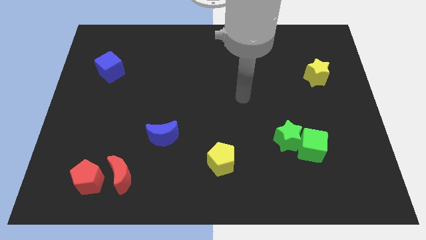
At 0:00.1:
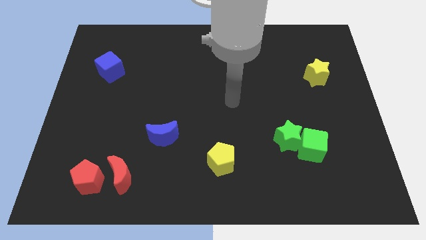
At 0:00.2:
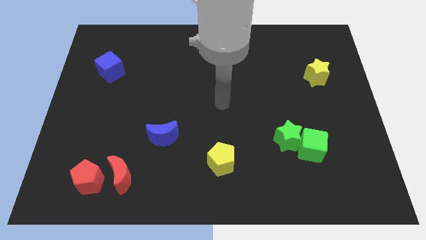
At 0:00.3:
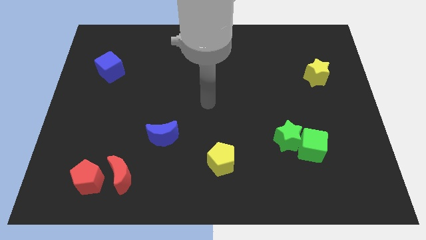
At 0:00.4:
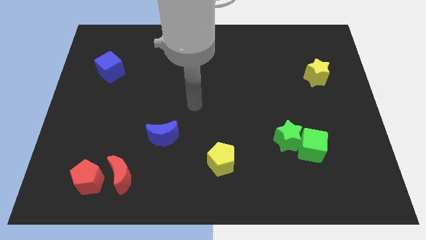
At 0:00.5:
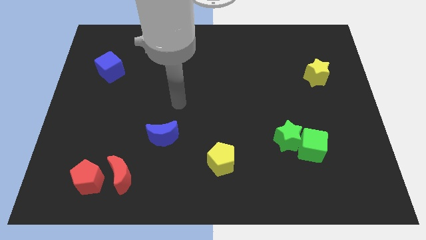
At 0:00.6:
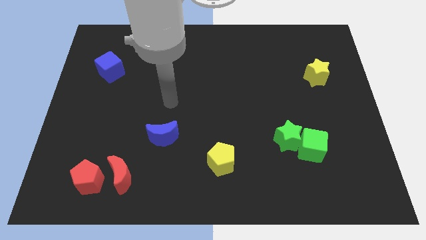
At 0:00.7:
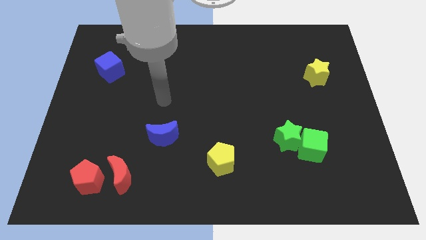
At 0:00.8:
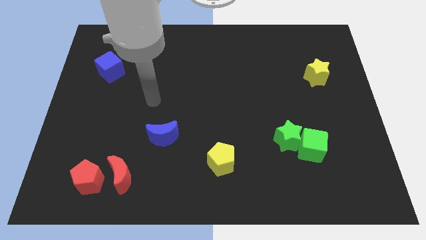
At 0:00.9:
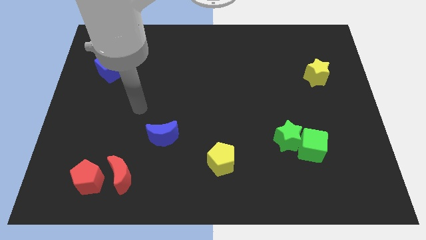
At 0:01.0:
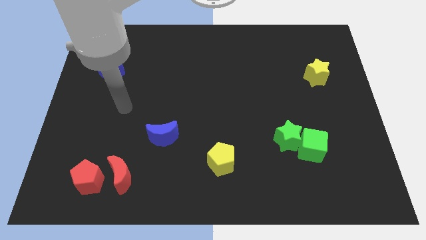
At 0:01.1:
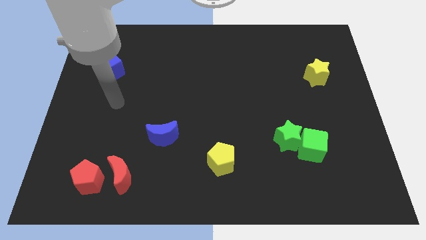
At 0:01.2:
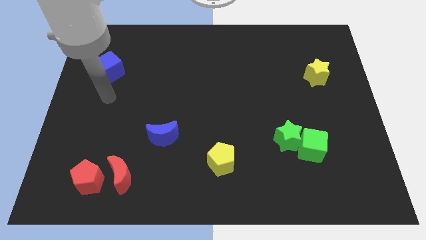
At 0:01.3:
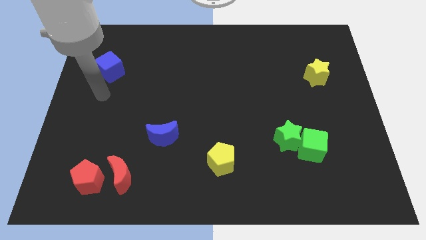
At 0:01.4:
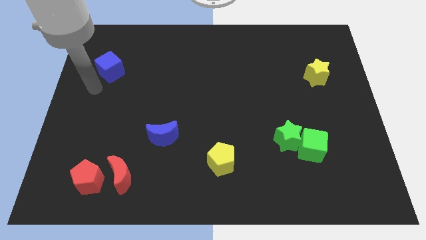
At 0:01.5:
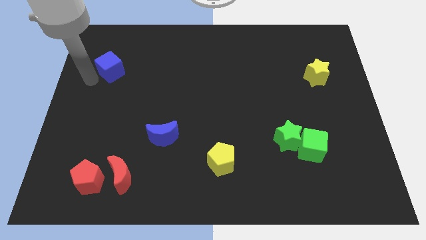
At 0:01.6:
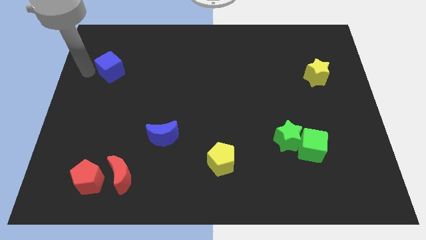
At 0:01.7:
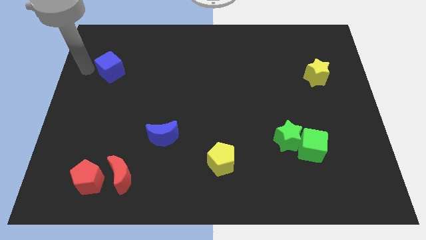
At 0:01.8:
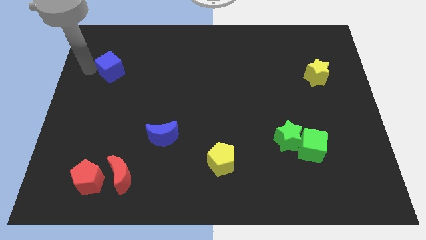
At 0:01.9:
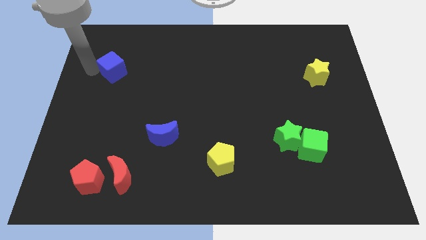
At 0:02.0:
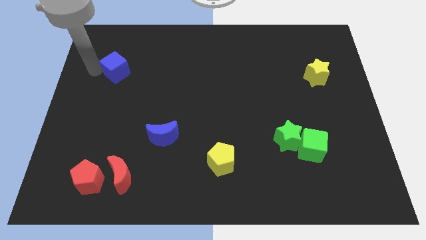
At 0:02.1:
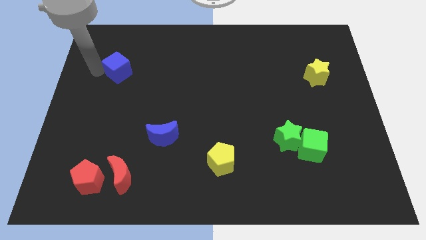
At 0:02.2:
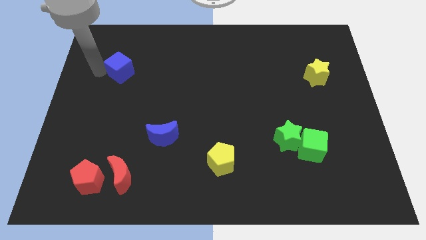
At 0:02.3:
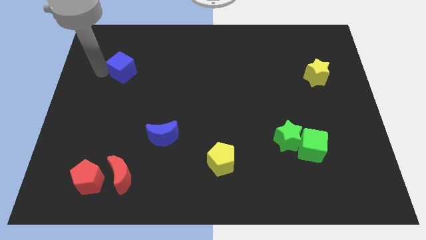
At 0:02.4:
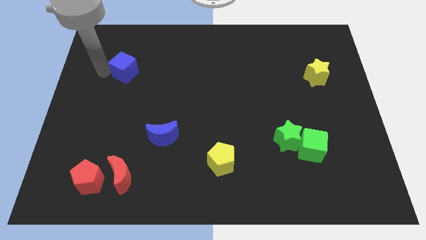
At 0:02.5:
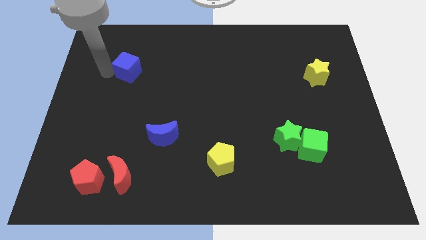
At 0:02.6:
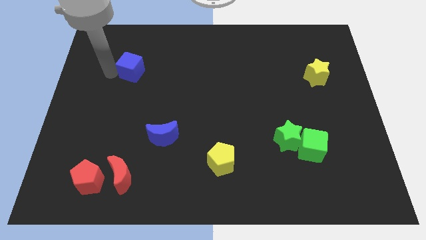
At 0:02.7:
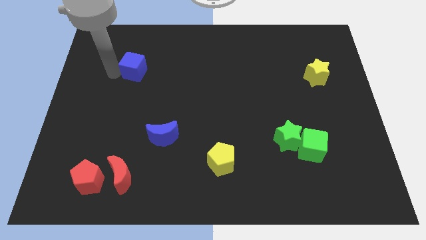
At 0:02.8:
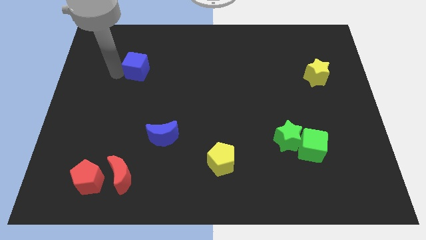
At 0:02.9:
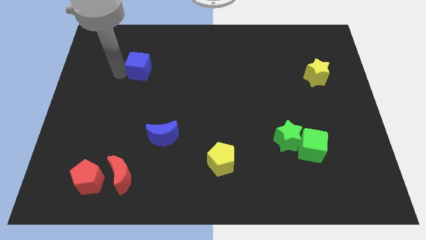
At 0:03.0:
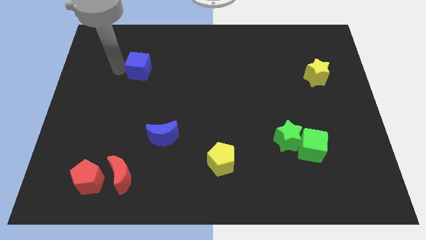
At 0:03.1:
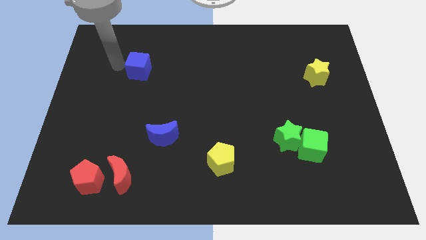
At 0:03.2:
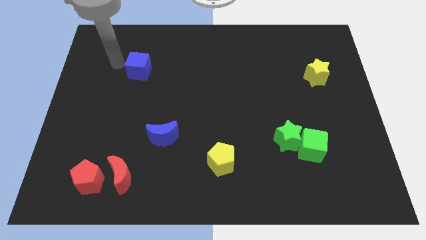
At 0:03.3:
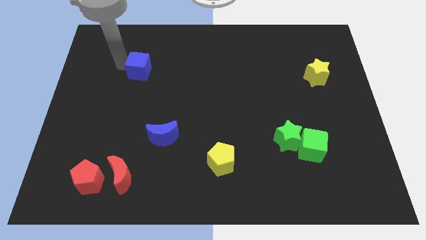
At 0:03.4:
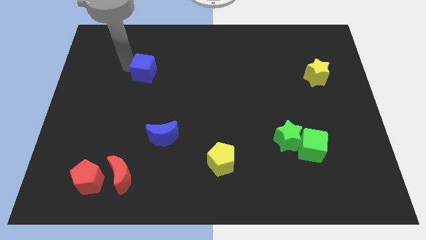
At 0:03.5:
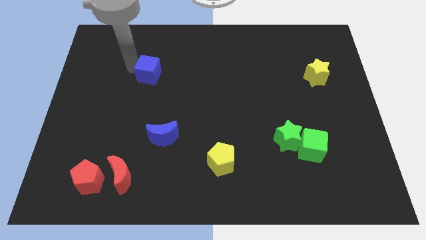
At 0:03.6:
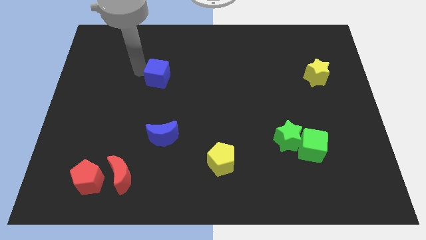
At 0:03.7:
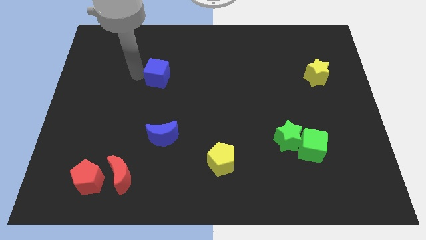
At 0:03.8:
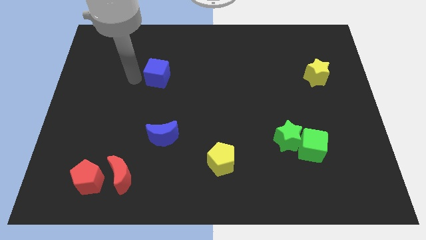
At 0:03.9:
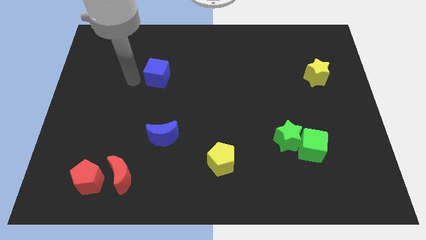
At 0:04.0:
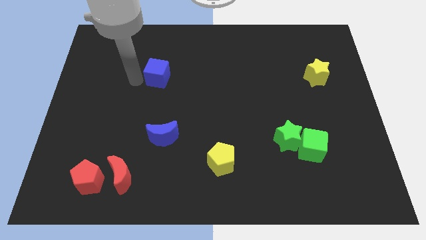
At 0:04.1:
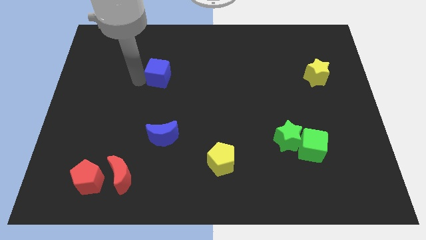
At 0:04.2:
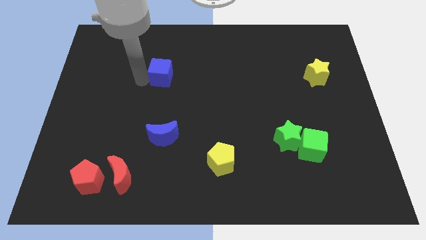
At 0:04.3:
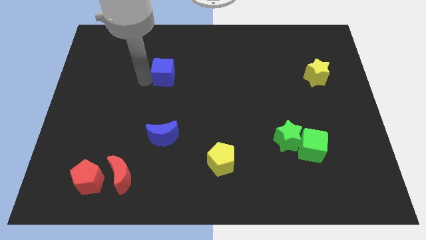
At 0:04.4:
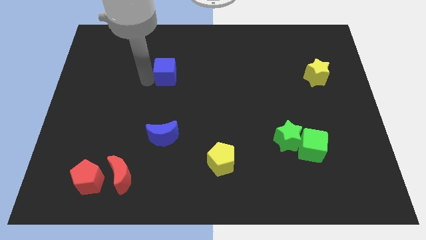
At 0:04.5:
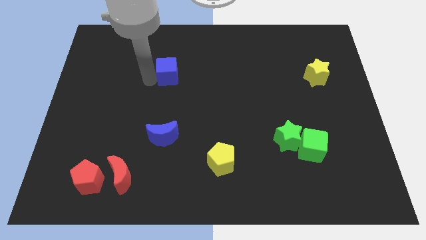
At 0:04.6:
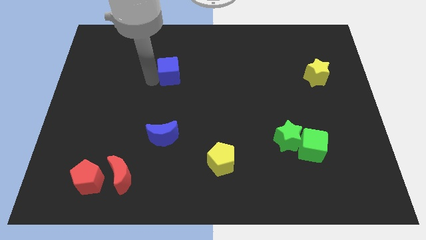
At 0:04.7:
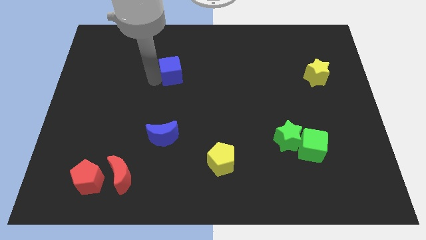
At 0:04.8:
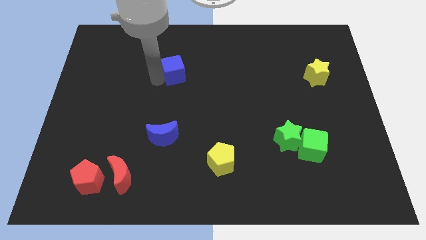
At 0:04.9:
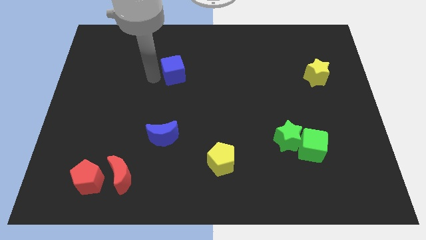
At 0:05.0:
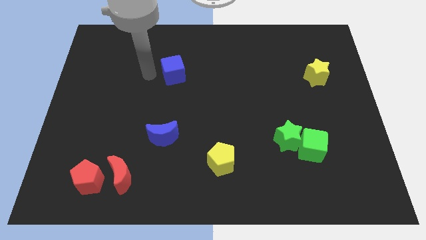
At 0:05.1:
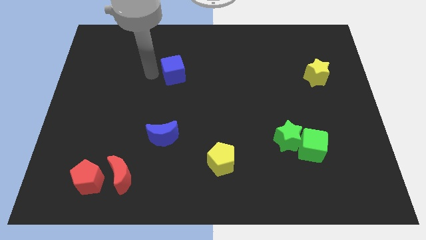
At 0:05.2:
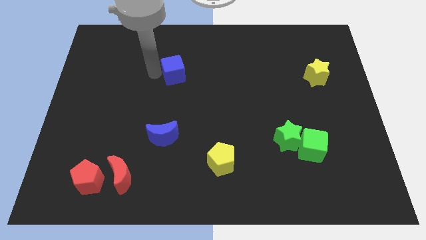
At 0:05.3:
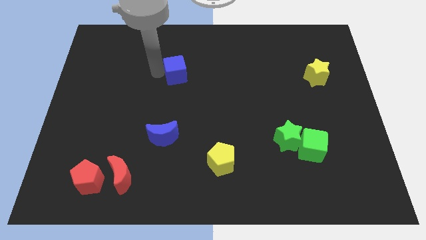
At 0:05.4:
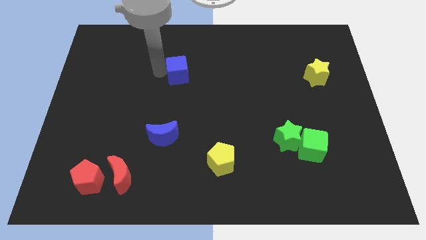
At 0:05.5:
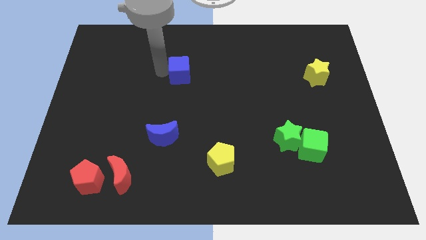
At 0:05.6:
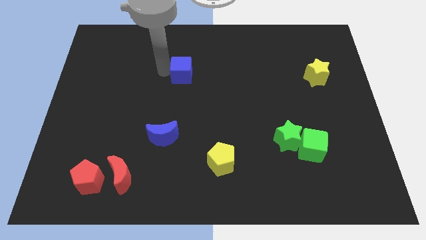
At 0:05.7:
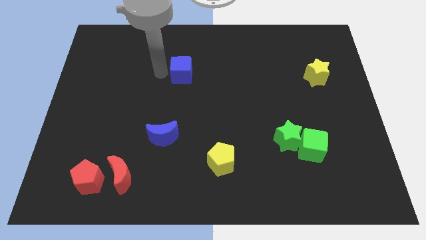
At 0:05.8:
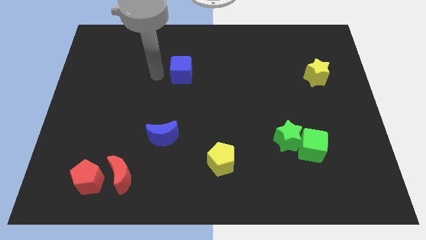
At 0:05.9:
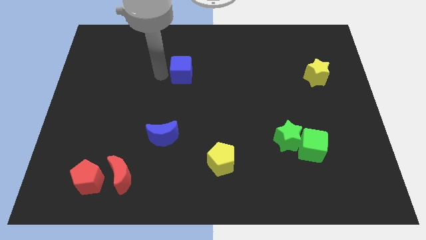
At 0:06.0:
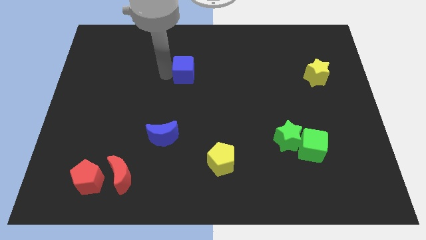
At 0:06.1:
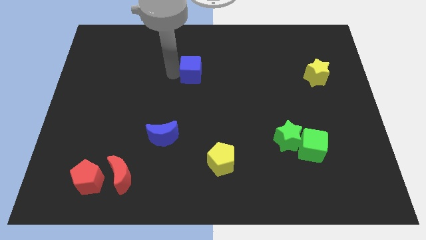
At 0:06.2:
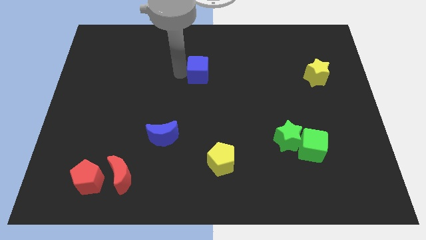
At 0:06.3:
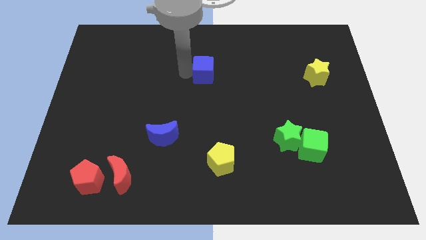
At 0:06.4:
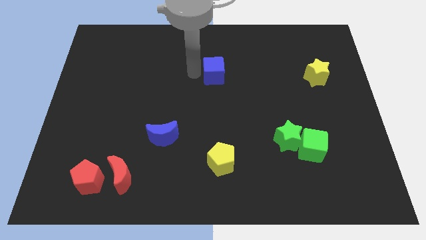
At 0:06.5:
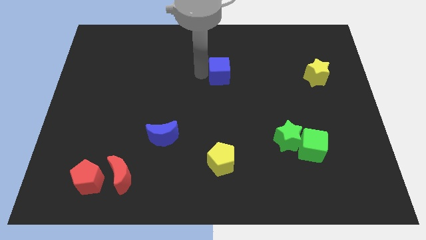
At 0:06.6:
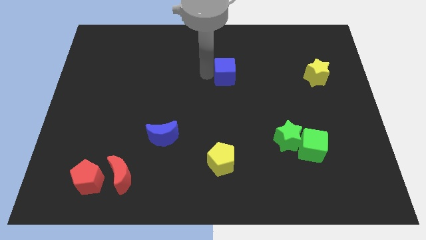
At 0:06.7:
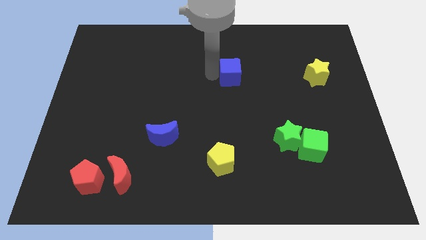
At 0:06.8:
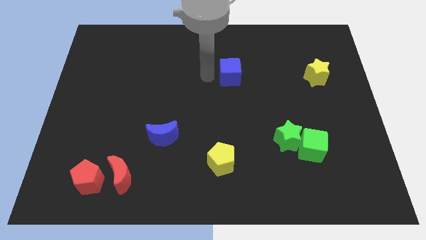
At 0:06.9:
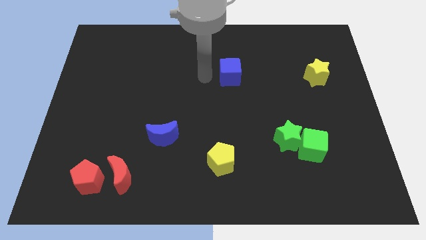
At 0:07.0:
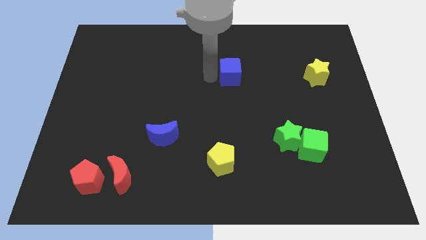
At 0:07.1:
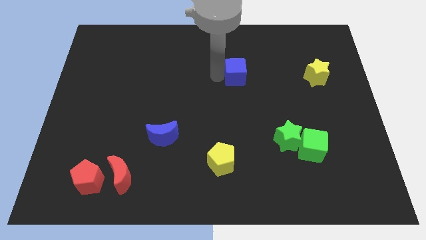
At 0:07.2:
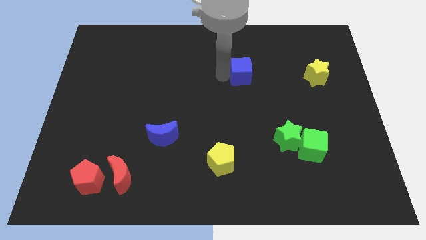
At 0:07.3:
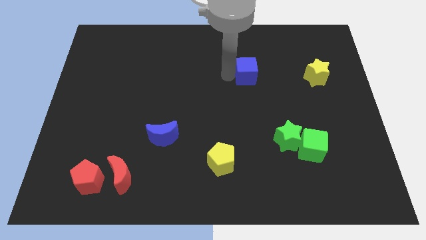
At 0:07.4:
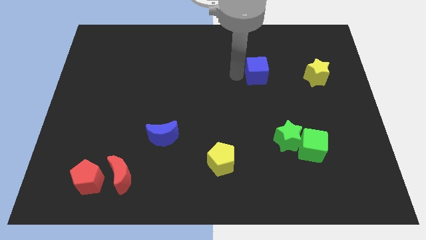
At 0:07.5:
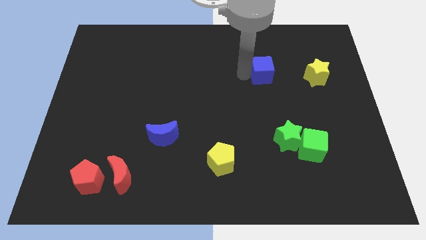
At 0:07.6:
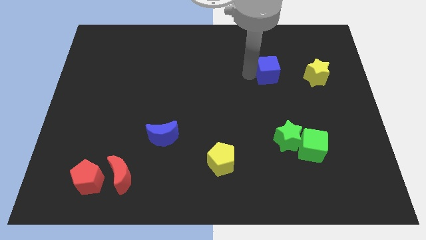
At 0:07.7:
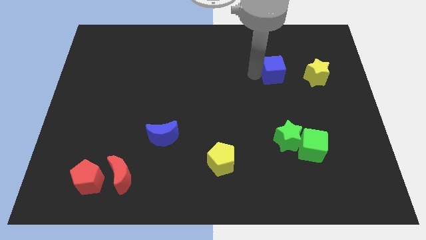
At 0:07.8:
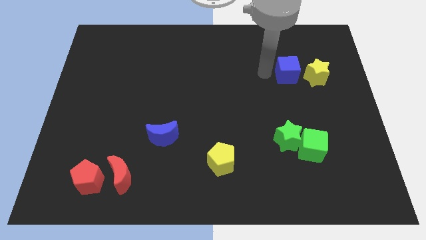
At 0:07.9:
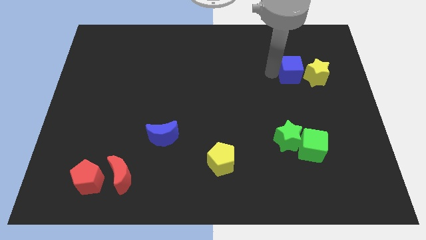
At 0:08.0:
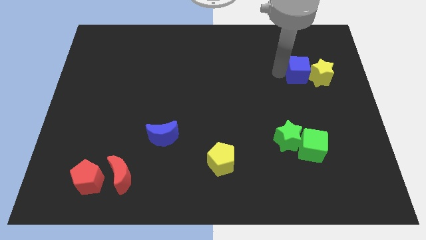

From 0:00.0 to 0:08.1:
slide the blue cube next to the yellow star
